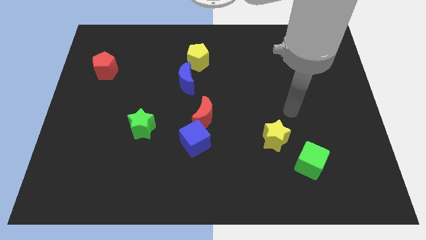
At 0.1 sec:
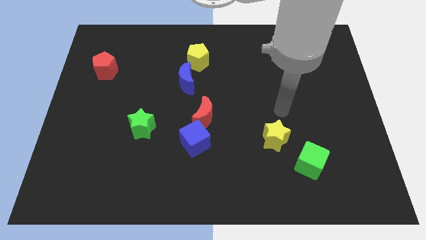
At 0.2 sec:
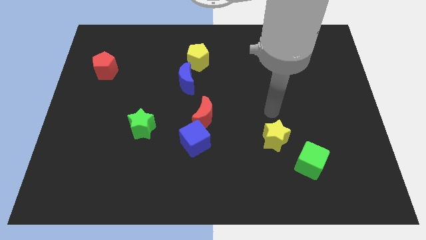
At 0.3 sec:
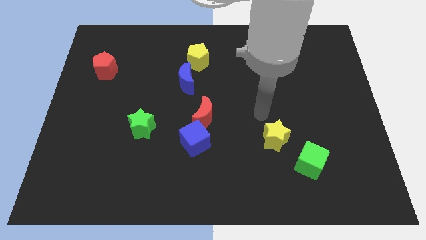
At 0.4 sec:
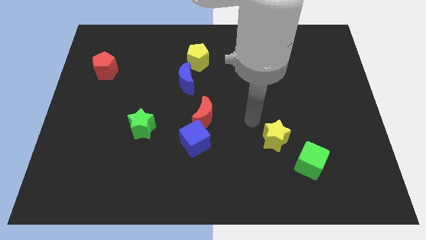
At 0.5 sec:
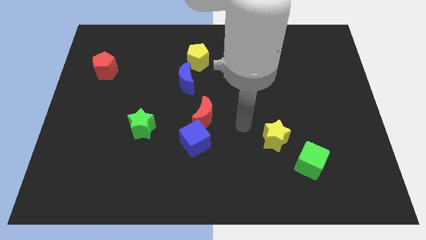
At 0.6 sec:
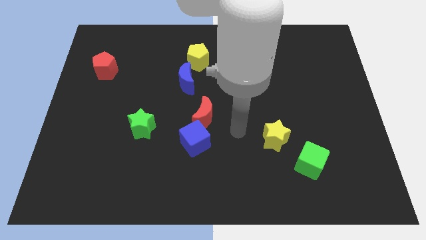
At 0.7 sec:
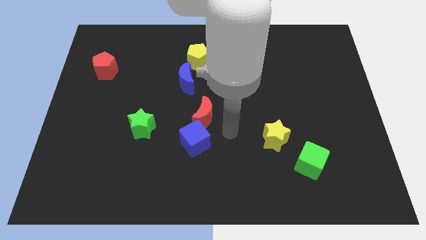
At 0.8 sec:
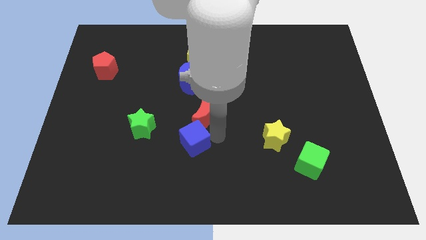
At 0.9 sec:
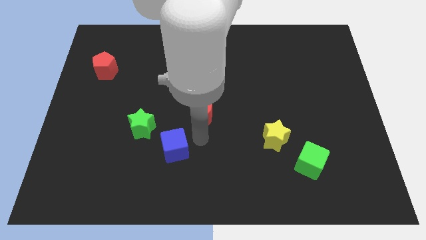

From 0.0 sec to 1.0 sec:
separate the red moon from the blue cube

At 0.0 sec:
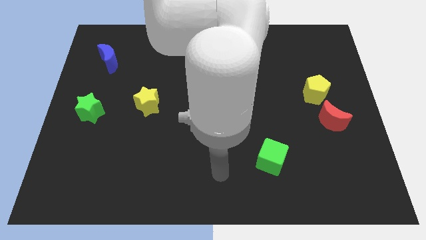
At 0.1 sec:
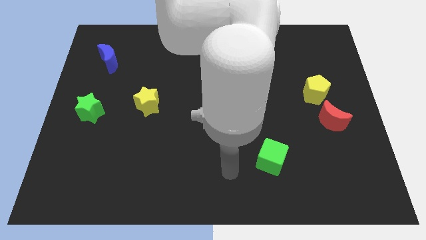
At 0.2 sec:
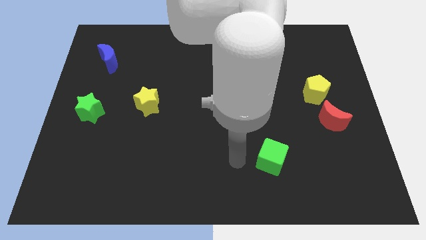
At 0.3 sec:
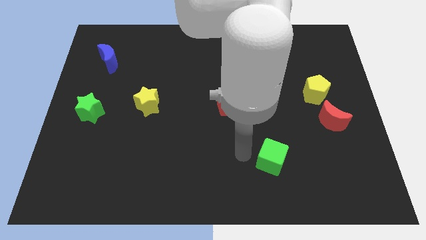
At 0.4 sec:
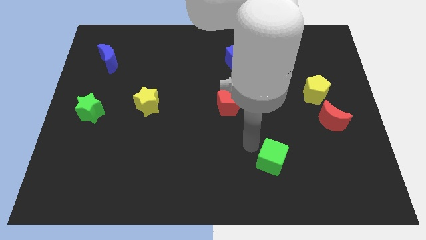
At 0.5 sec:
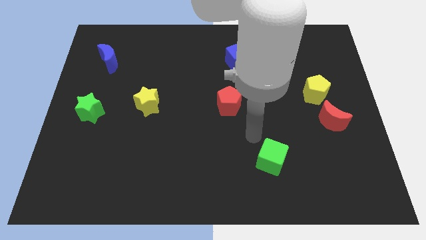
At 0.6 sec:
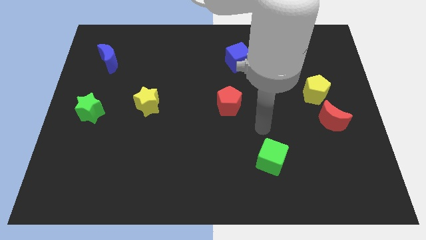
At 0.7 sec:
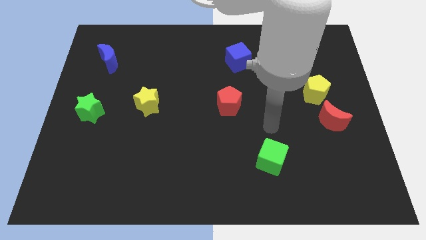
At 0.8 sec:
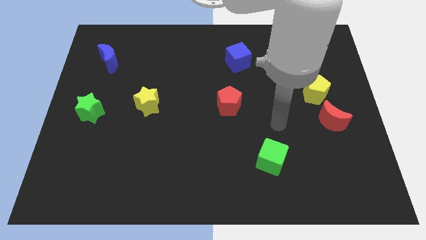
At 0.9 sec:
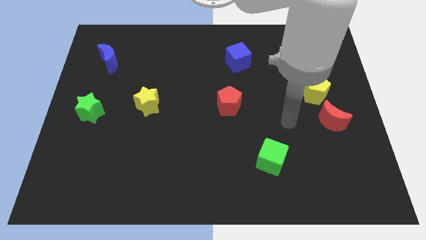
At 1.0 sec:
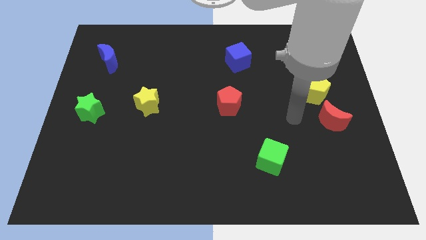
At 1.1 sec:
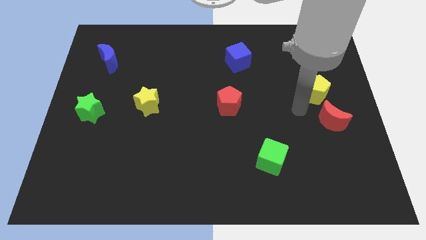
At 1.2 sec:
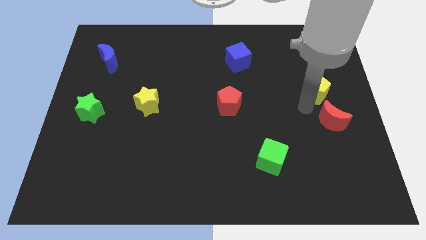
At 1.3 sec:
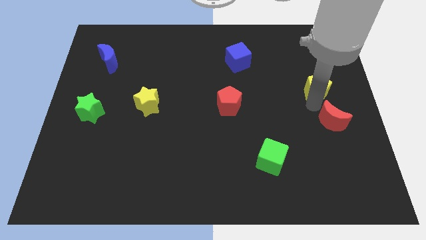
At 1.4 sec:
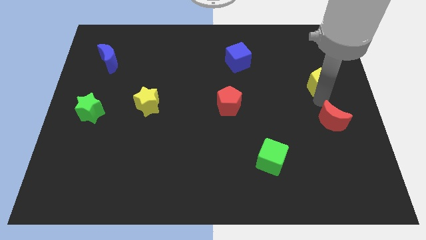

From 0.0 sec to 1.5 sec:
pull the red moon apart from the yellow pentagon

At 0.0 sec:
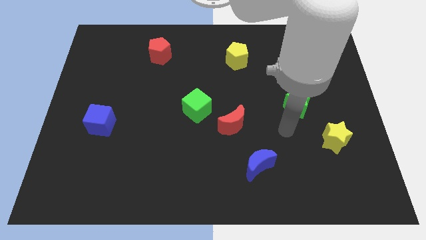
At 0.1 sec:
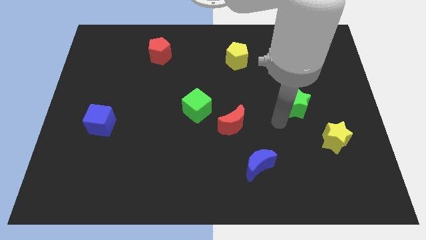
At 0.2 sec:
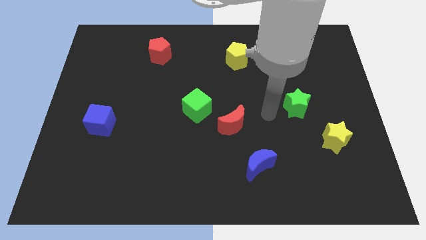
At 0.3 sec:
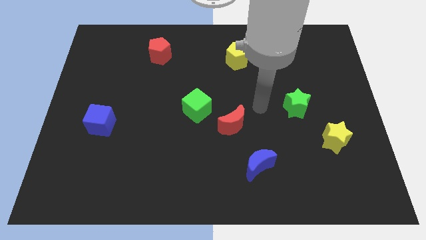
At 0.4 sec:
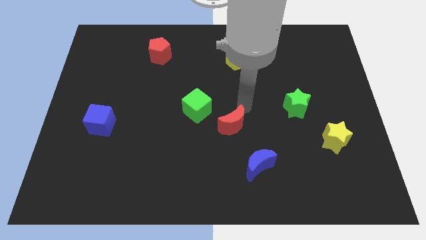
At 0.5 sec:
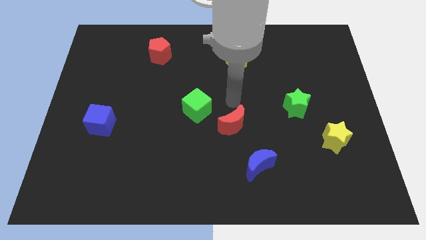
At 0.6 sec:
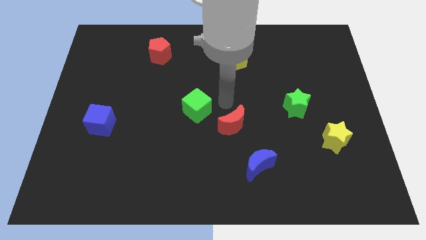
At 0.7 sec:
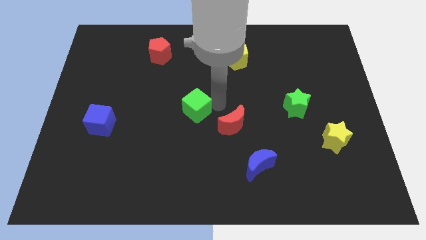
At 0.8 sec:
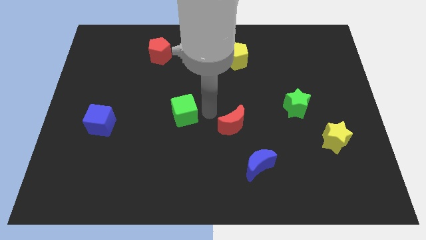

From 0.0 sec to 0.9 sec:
move the red moon away from the green cube

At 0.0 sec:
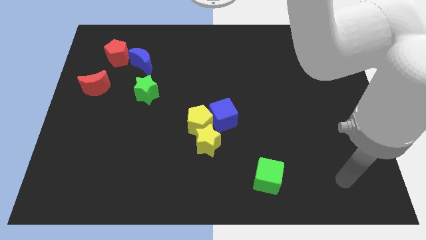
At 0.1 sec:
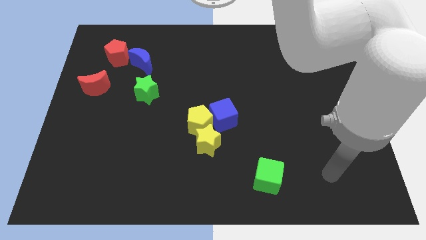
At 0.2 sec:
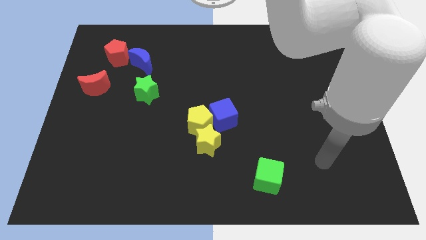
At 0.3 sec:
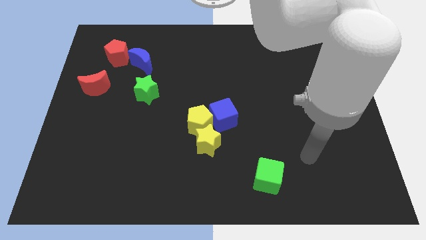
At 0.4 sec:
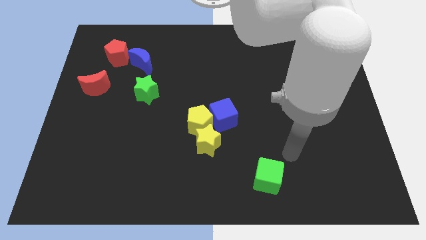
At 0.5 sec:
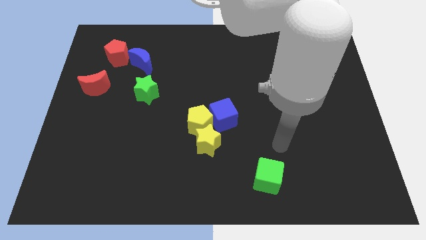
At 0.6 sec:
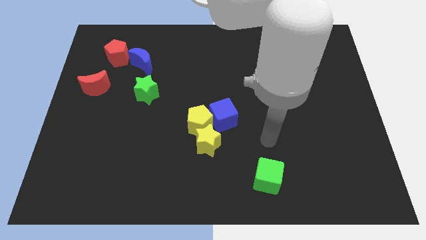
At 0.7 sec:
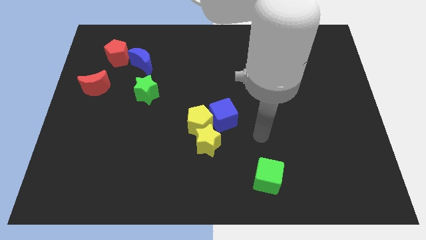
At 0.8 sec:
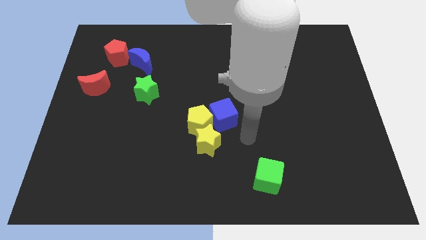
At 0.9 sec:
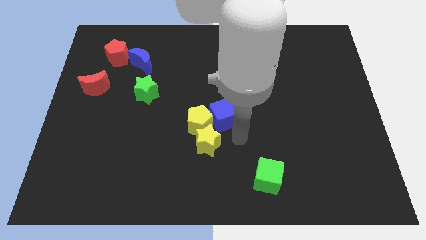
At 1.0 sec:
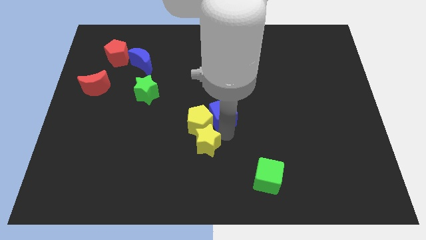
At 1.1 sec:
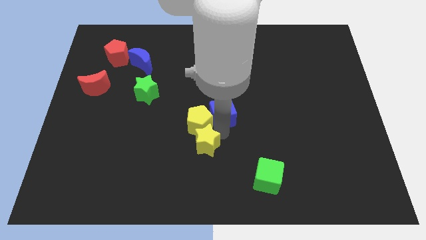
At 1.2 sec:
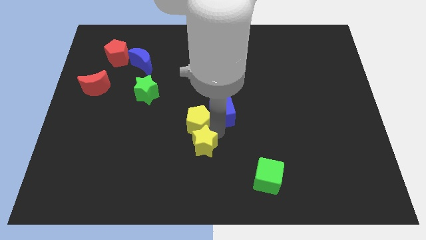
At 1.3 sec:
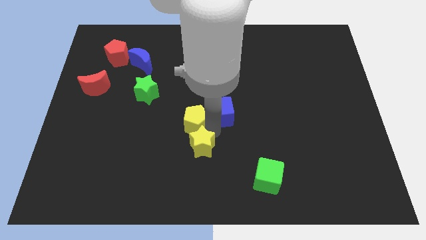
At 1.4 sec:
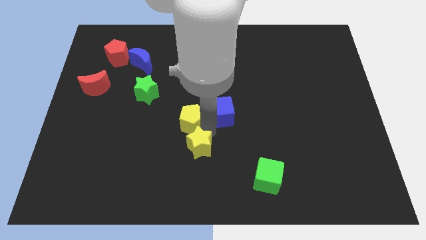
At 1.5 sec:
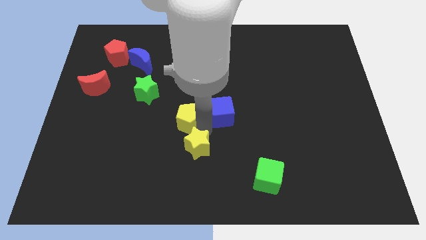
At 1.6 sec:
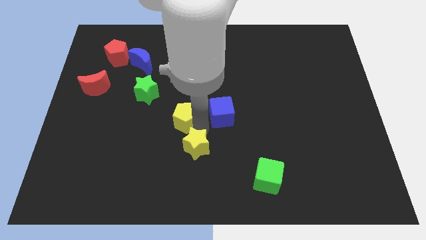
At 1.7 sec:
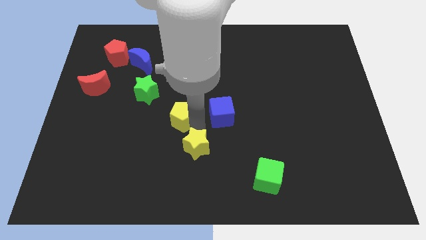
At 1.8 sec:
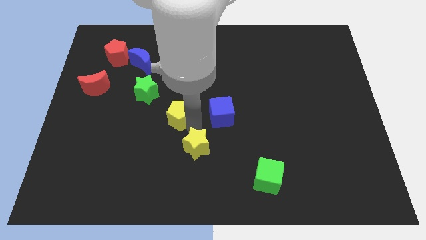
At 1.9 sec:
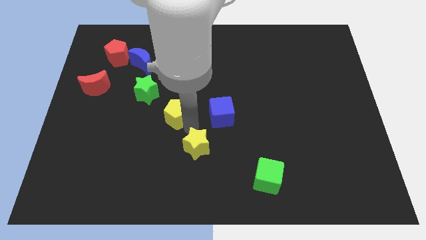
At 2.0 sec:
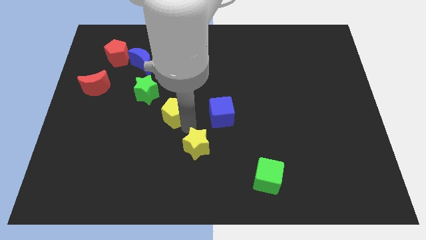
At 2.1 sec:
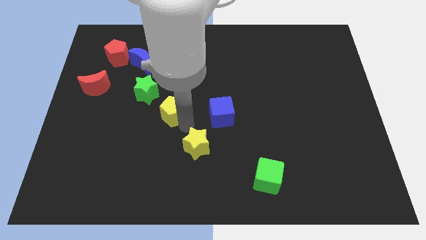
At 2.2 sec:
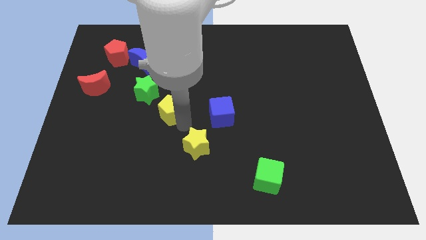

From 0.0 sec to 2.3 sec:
pull the yellow pentagon apart from the blue cube and yellow star

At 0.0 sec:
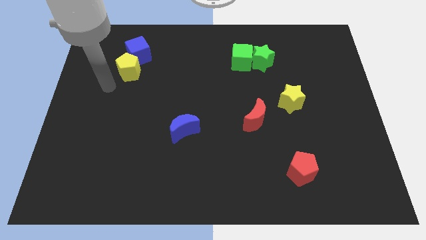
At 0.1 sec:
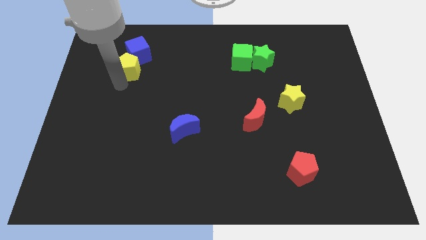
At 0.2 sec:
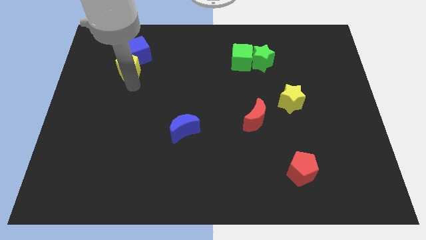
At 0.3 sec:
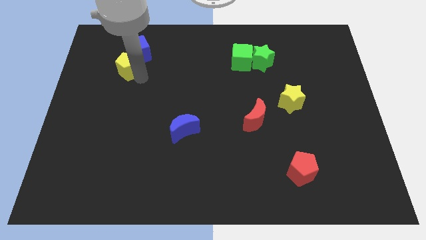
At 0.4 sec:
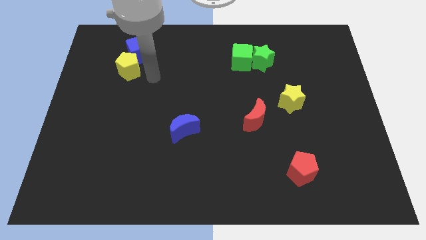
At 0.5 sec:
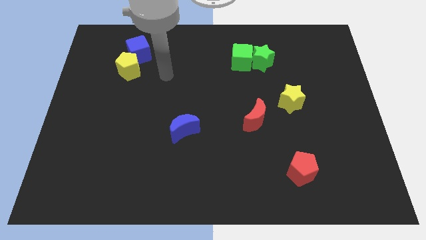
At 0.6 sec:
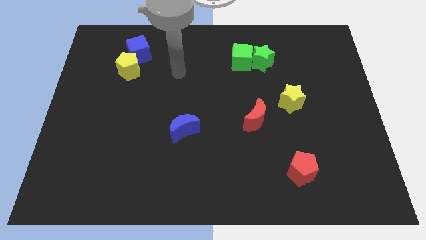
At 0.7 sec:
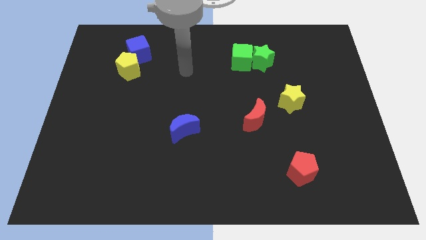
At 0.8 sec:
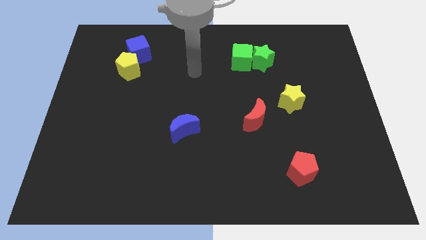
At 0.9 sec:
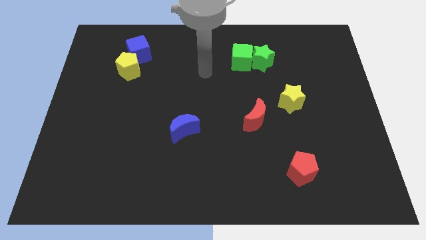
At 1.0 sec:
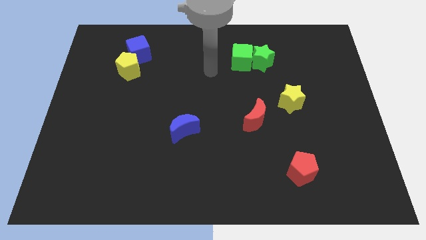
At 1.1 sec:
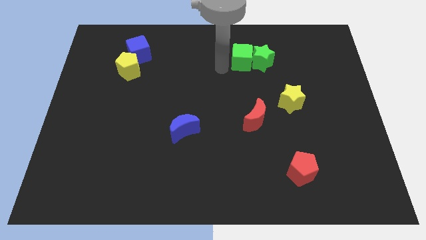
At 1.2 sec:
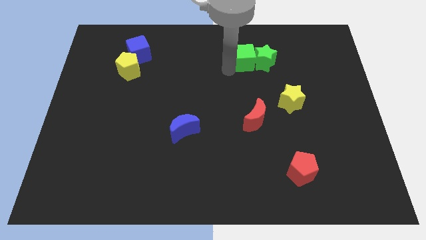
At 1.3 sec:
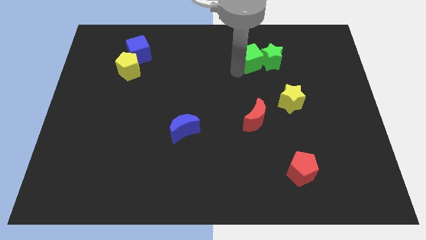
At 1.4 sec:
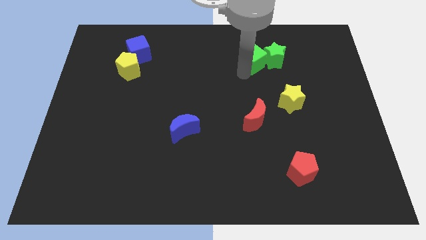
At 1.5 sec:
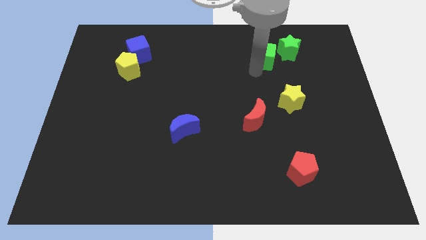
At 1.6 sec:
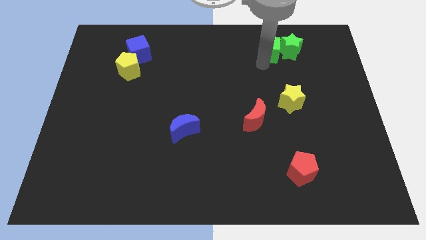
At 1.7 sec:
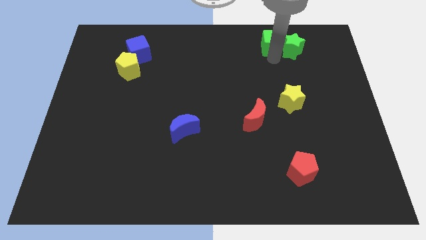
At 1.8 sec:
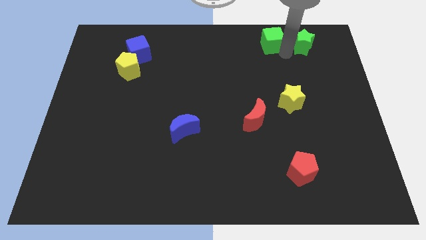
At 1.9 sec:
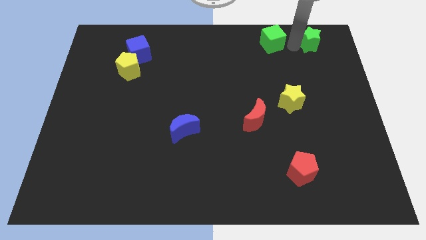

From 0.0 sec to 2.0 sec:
move the green cube away from the green star

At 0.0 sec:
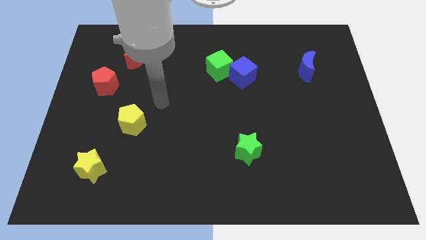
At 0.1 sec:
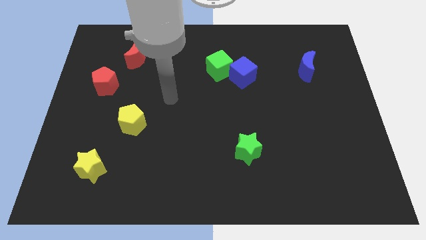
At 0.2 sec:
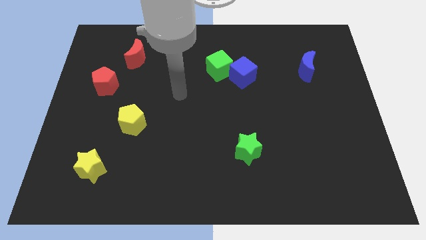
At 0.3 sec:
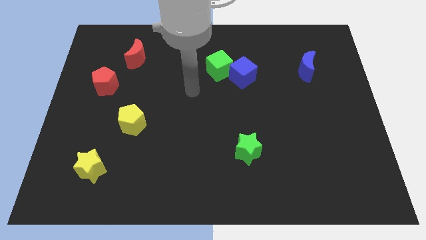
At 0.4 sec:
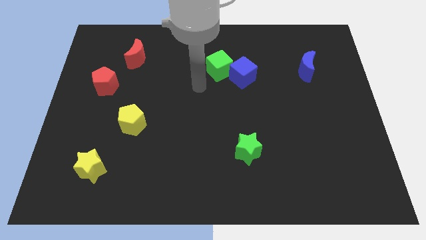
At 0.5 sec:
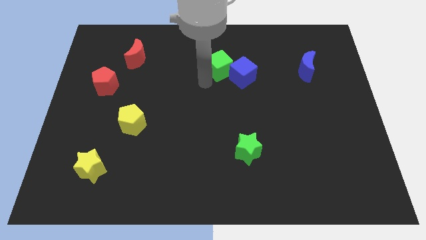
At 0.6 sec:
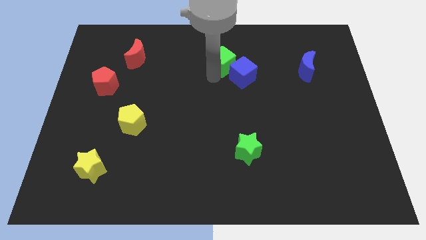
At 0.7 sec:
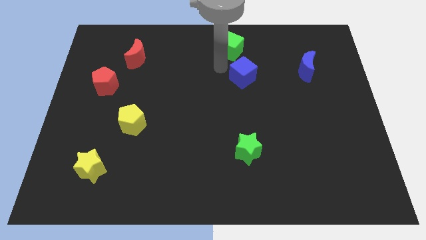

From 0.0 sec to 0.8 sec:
separate the blue cube from the green cube

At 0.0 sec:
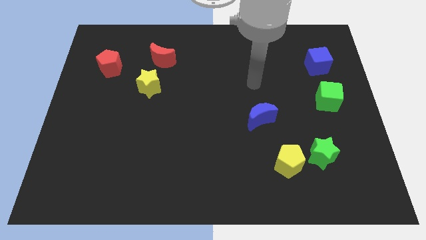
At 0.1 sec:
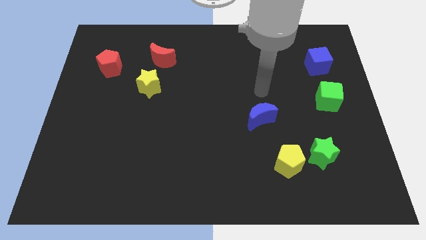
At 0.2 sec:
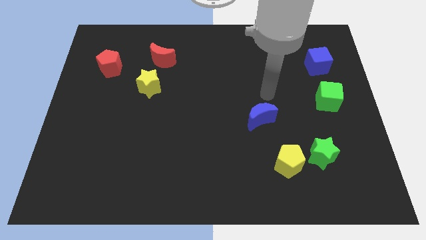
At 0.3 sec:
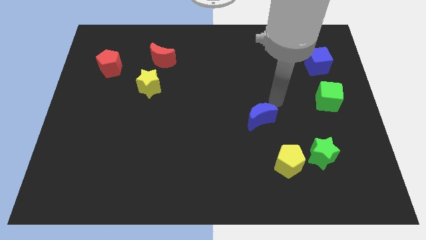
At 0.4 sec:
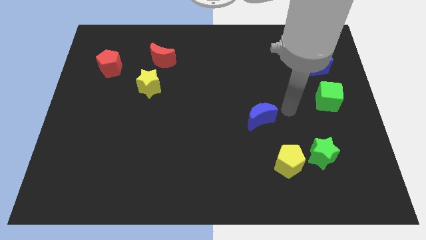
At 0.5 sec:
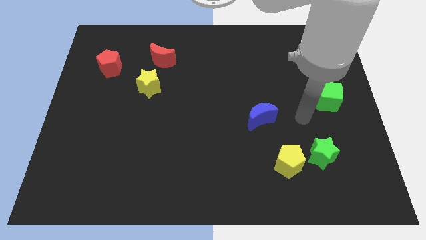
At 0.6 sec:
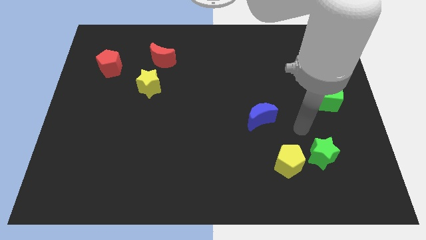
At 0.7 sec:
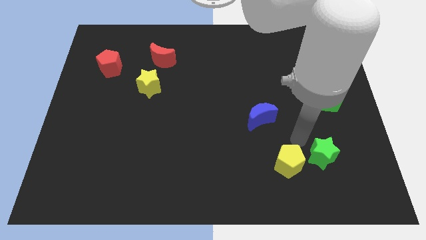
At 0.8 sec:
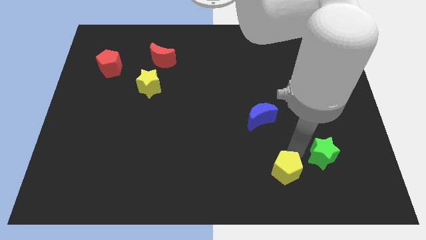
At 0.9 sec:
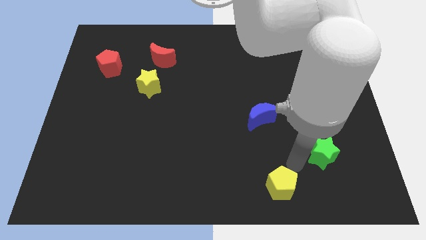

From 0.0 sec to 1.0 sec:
move the green star away from the yellow pentagon
